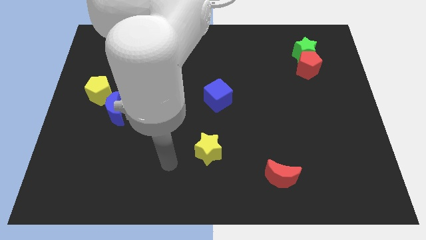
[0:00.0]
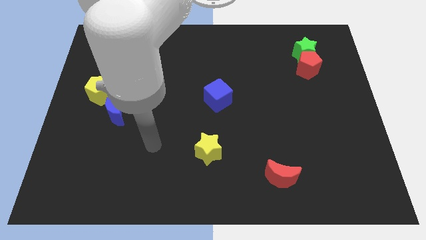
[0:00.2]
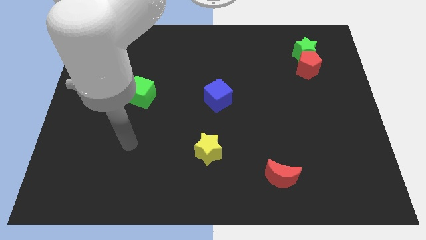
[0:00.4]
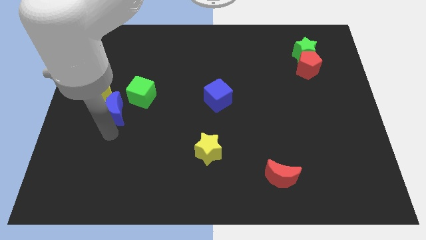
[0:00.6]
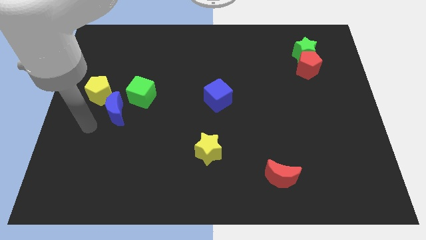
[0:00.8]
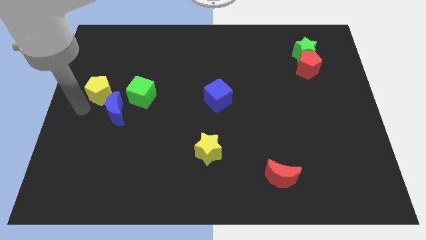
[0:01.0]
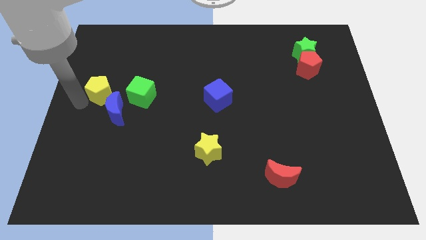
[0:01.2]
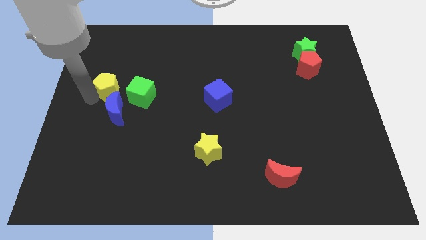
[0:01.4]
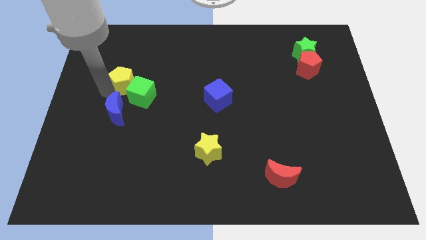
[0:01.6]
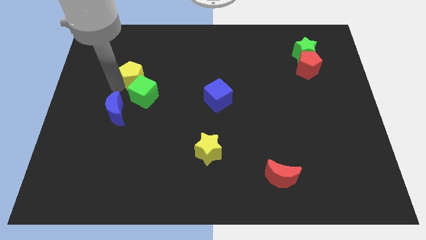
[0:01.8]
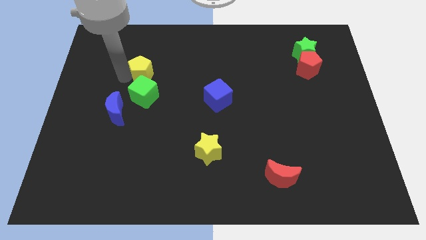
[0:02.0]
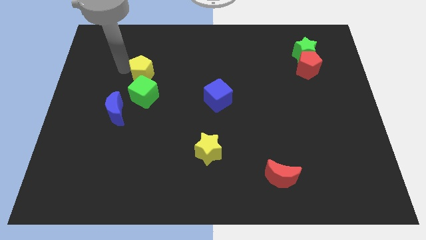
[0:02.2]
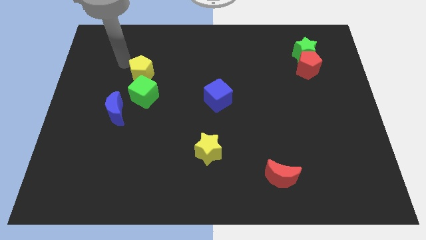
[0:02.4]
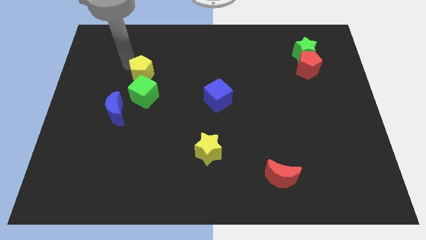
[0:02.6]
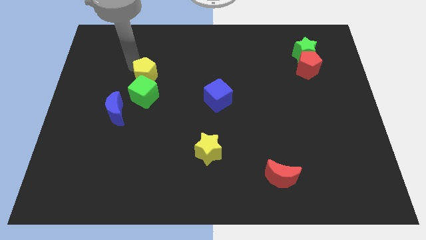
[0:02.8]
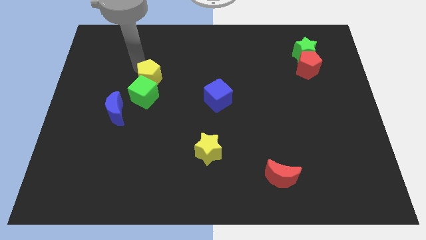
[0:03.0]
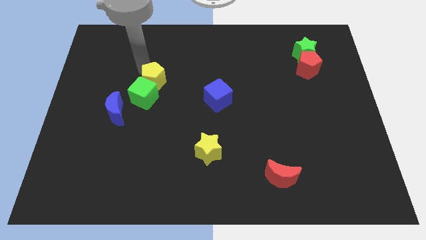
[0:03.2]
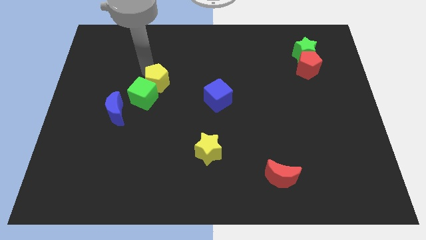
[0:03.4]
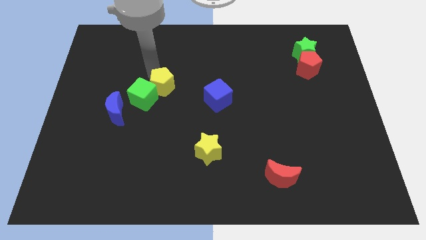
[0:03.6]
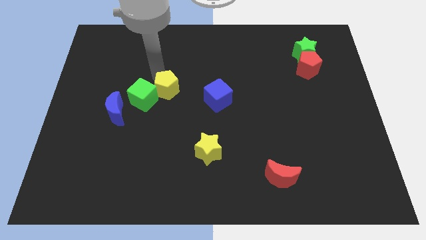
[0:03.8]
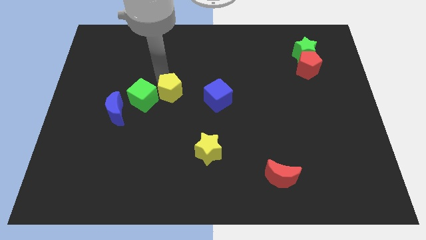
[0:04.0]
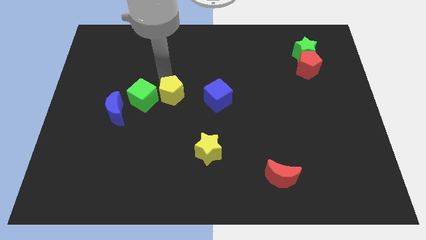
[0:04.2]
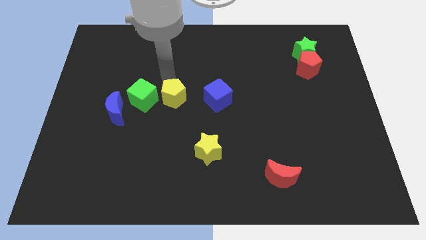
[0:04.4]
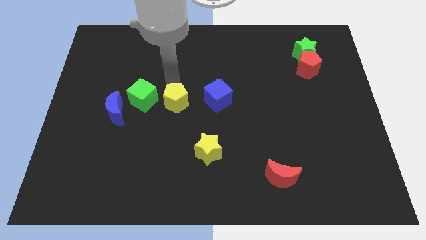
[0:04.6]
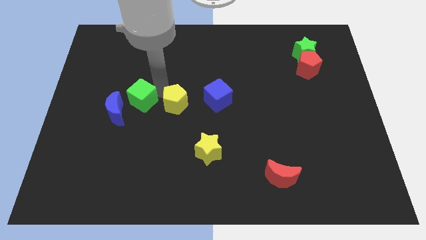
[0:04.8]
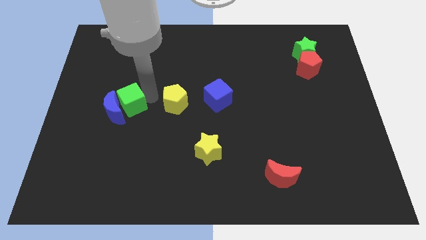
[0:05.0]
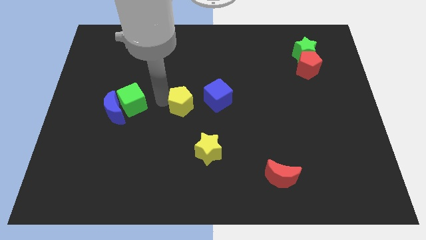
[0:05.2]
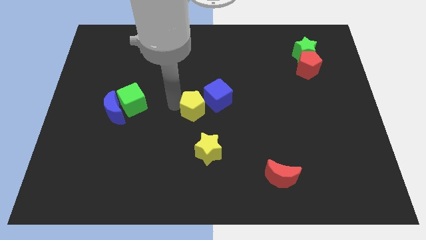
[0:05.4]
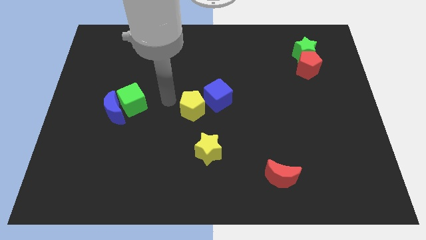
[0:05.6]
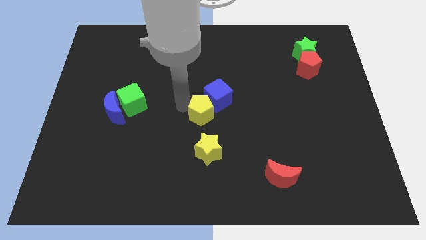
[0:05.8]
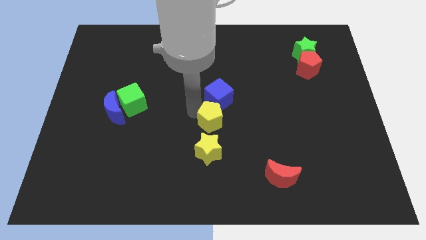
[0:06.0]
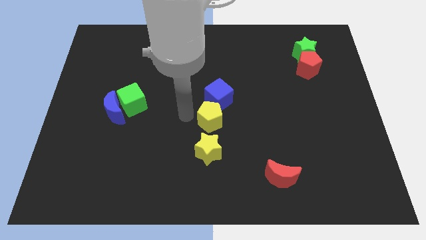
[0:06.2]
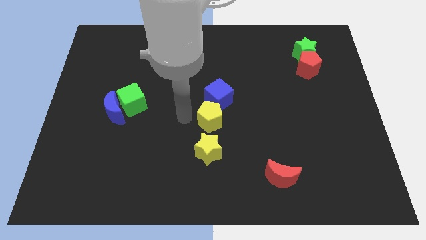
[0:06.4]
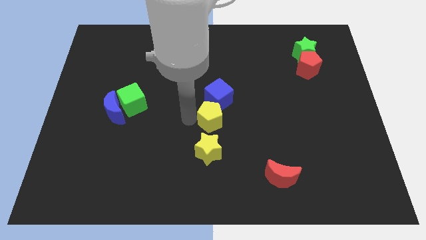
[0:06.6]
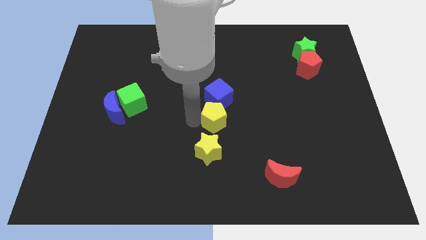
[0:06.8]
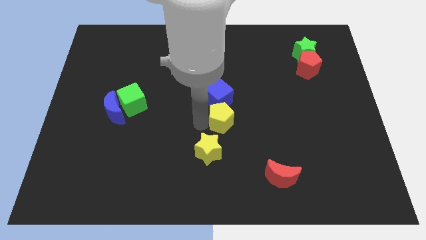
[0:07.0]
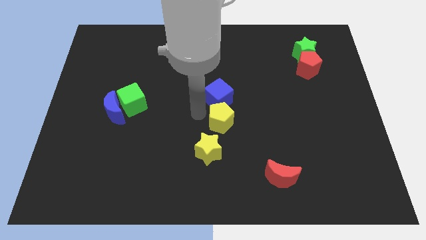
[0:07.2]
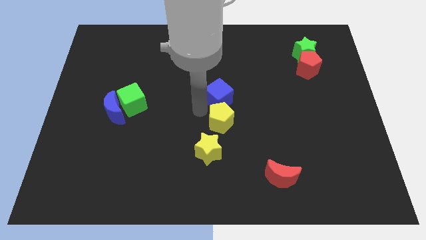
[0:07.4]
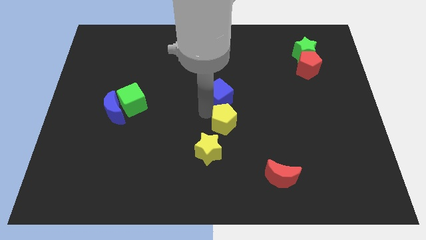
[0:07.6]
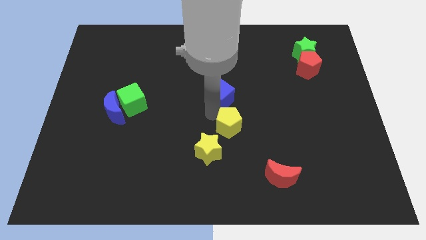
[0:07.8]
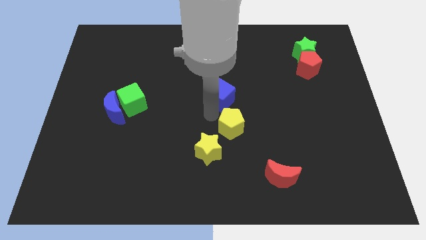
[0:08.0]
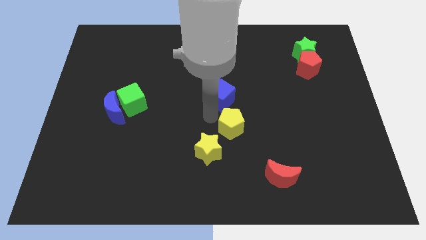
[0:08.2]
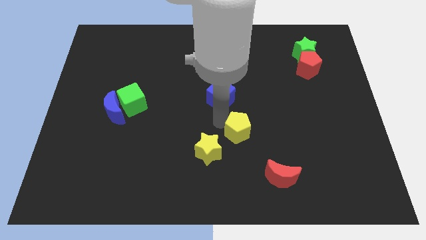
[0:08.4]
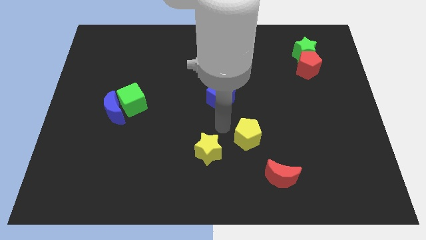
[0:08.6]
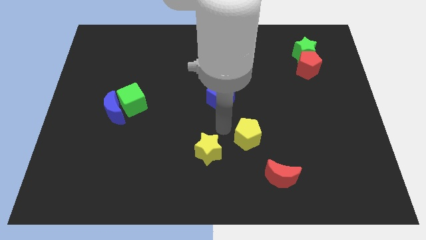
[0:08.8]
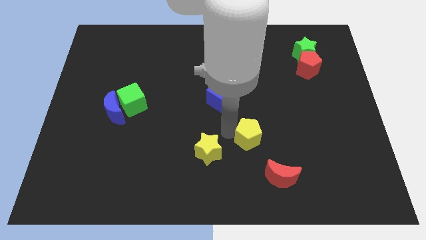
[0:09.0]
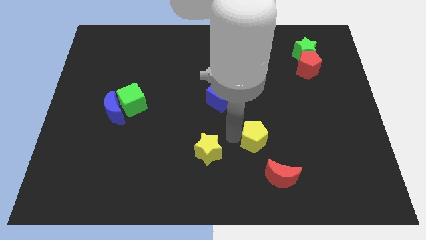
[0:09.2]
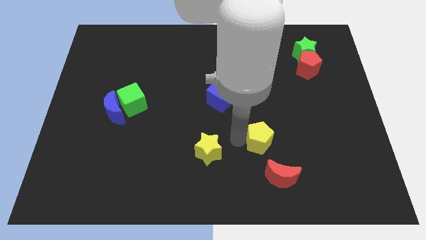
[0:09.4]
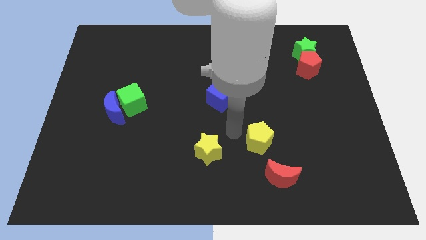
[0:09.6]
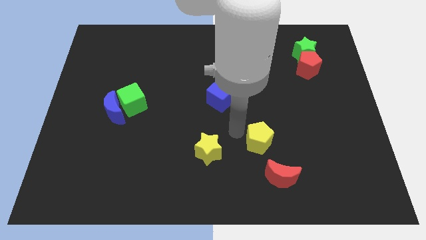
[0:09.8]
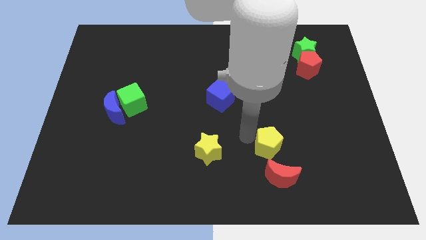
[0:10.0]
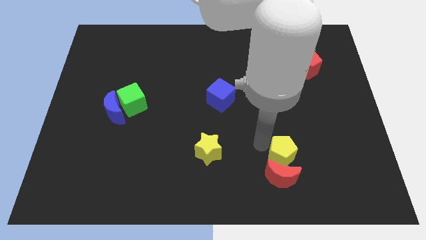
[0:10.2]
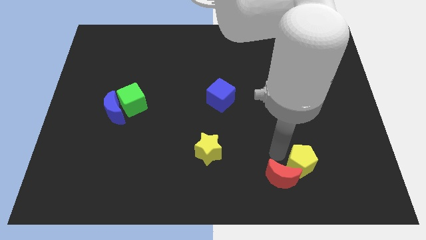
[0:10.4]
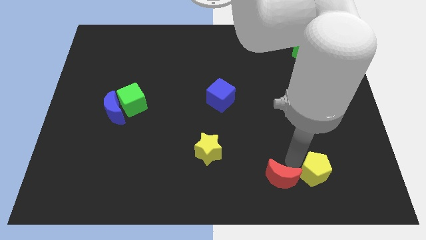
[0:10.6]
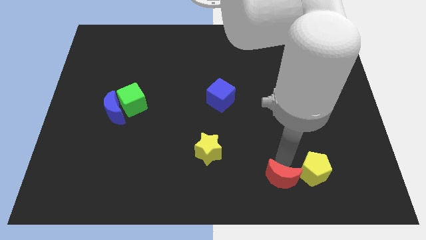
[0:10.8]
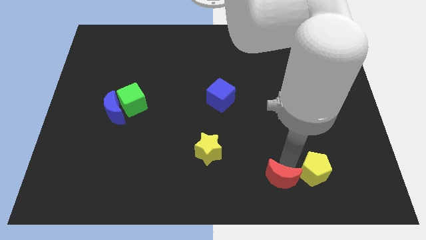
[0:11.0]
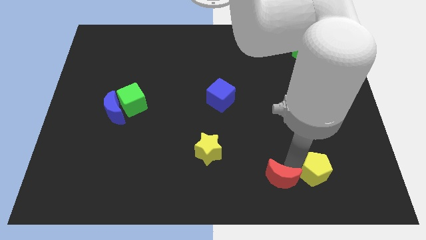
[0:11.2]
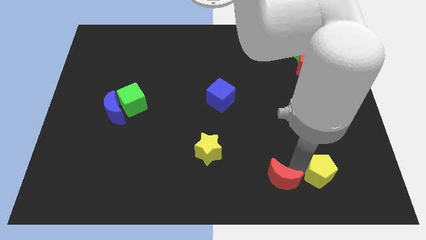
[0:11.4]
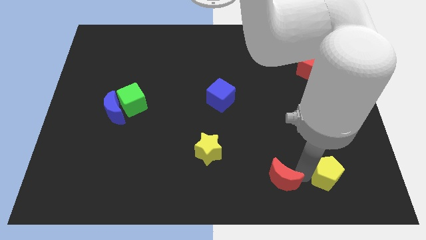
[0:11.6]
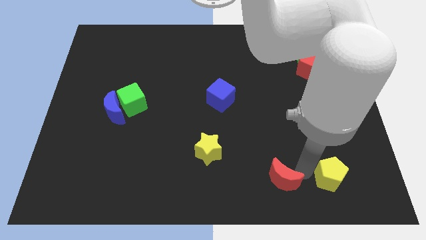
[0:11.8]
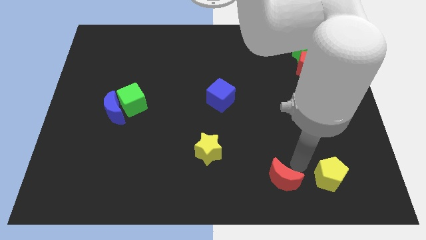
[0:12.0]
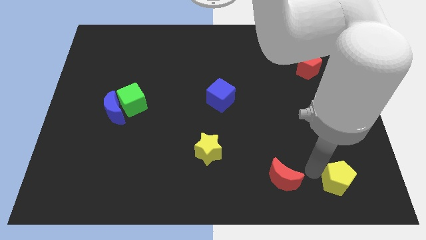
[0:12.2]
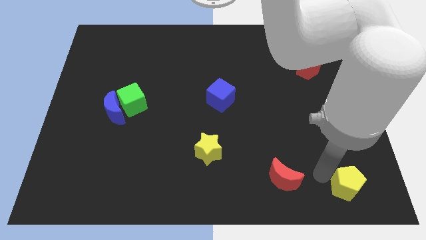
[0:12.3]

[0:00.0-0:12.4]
slide the yellow pentagon to the bottom right corner

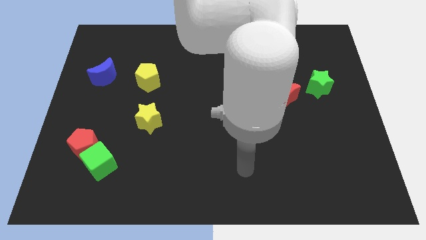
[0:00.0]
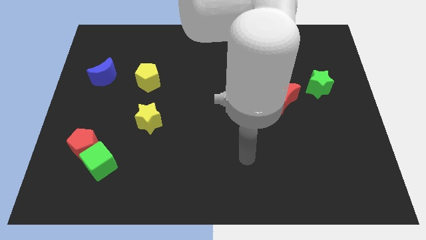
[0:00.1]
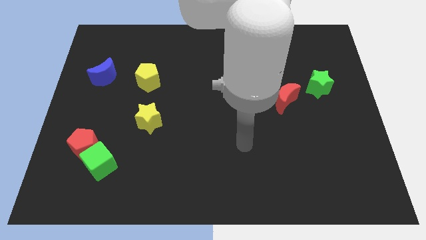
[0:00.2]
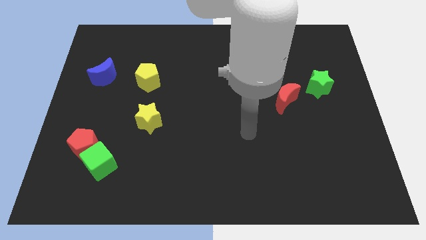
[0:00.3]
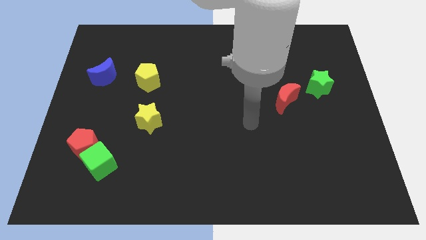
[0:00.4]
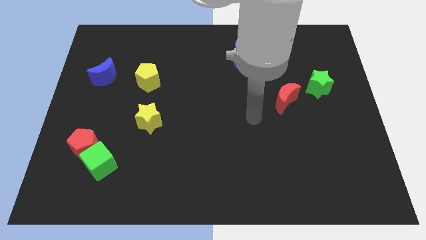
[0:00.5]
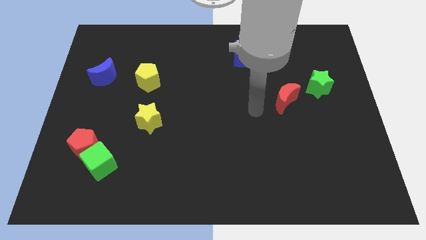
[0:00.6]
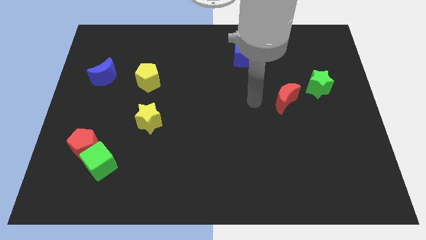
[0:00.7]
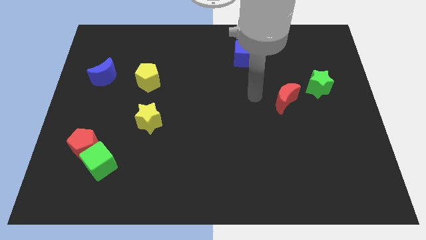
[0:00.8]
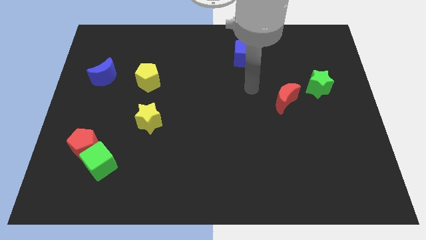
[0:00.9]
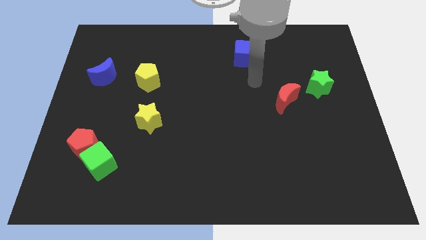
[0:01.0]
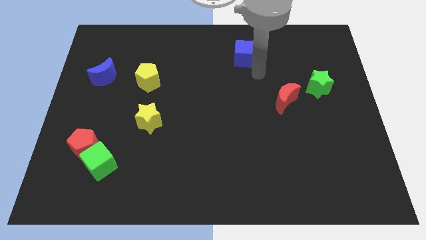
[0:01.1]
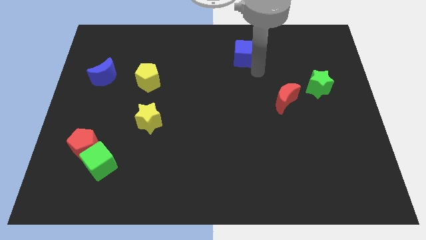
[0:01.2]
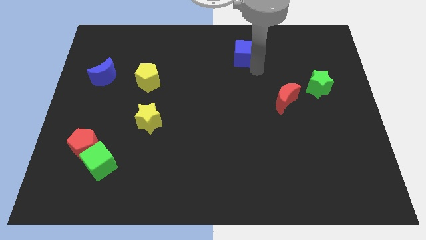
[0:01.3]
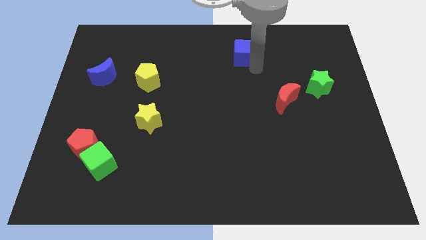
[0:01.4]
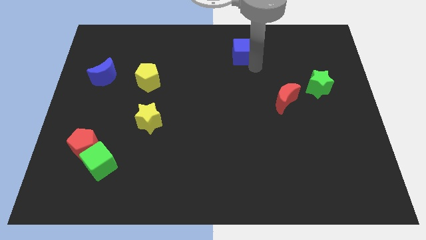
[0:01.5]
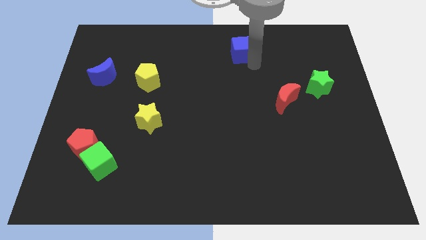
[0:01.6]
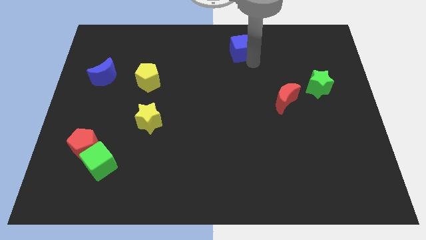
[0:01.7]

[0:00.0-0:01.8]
push the blue cube to the top side

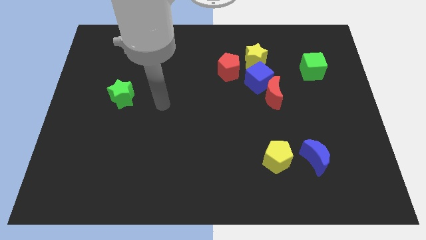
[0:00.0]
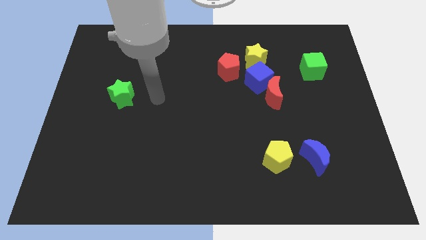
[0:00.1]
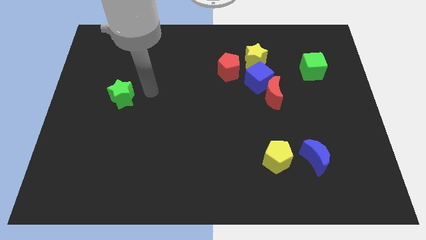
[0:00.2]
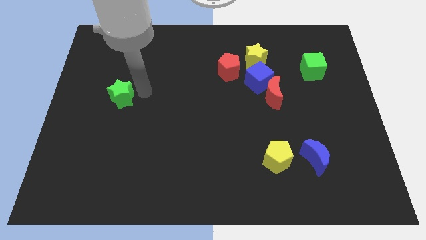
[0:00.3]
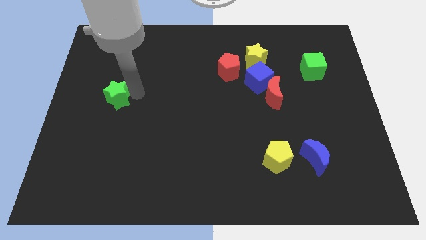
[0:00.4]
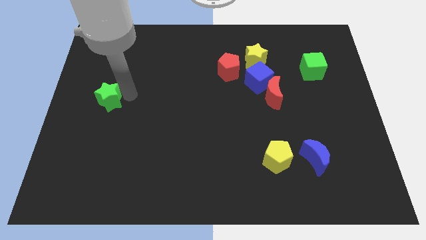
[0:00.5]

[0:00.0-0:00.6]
put the green star to the left side
